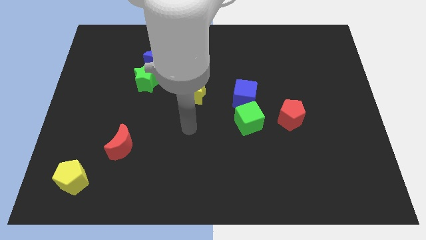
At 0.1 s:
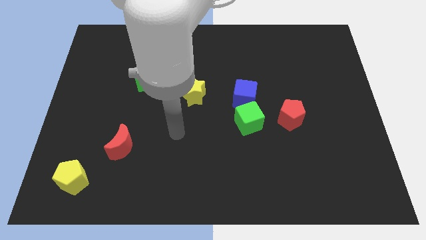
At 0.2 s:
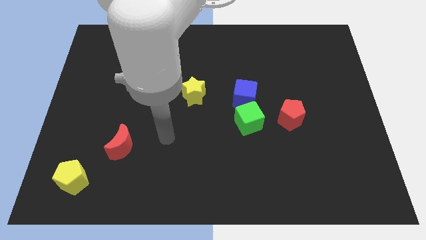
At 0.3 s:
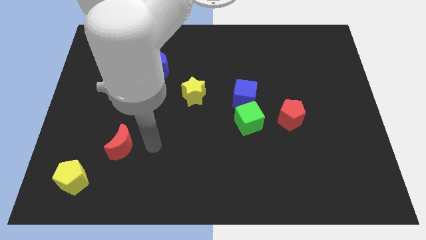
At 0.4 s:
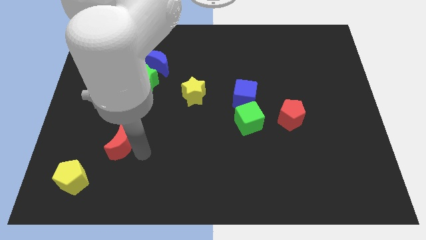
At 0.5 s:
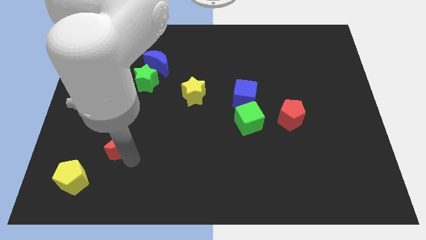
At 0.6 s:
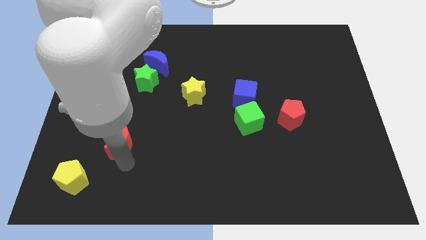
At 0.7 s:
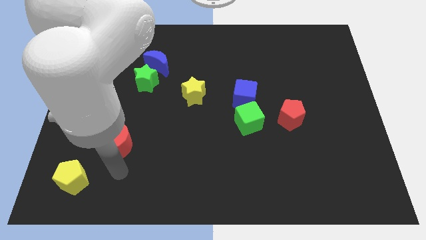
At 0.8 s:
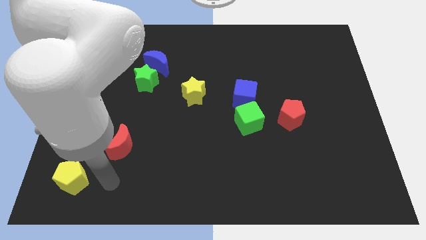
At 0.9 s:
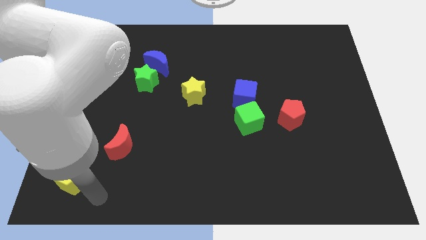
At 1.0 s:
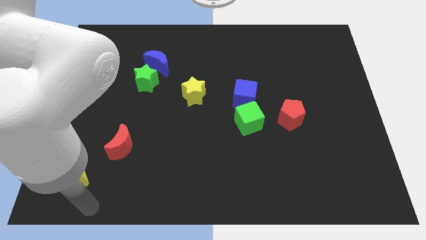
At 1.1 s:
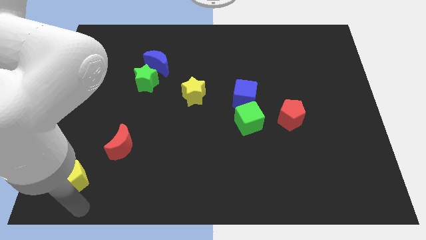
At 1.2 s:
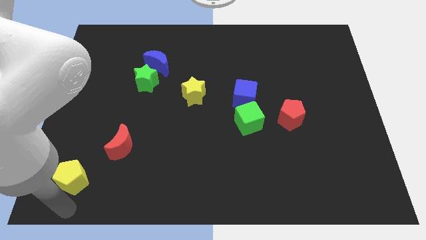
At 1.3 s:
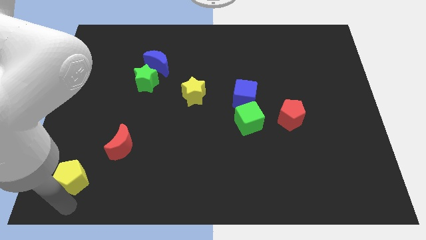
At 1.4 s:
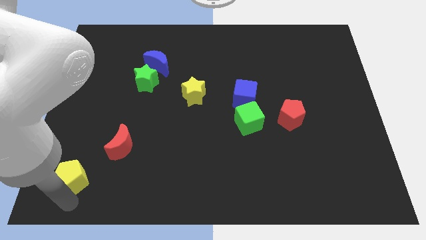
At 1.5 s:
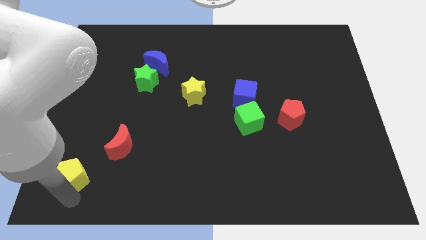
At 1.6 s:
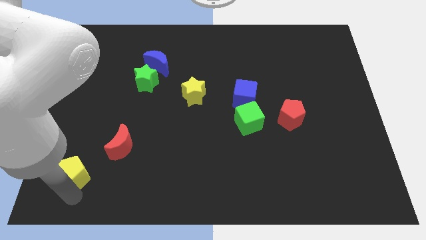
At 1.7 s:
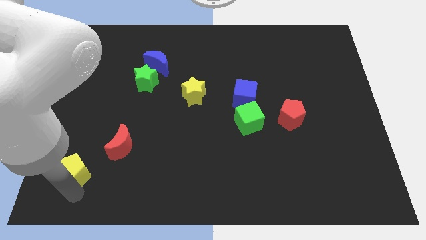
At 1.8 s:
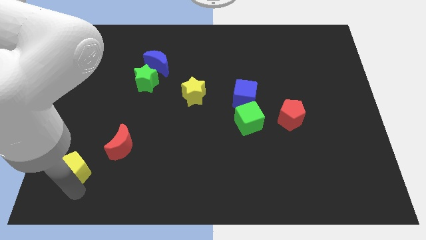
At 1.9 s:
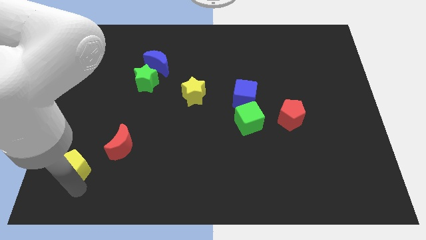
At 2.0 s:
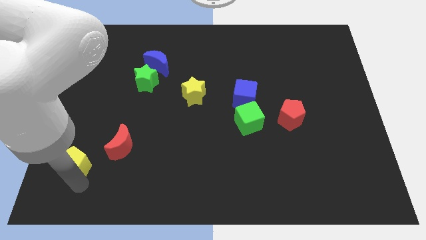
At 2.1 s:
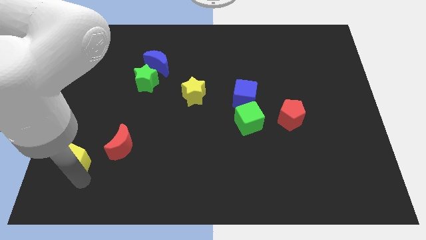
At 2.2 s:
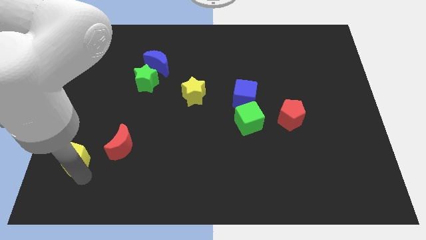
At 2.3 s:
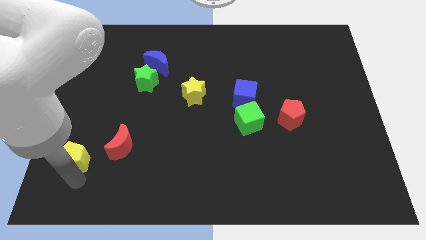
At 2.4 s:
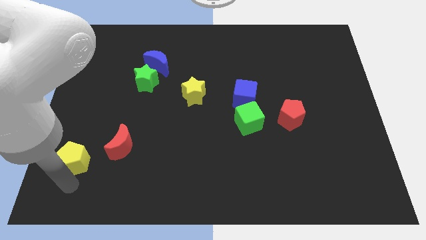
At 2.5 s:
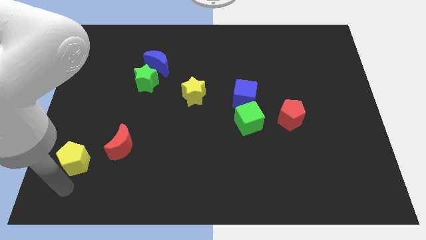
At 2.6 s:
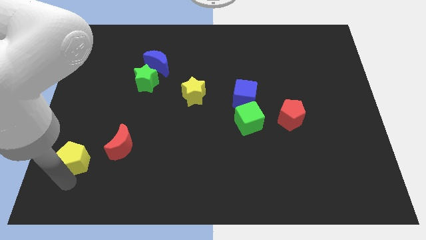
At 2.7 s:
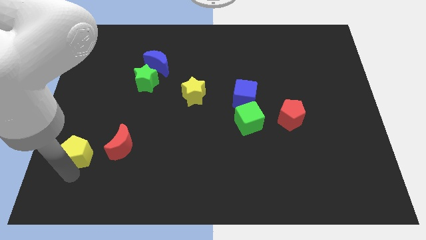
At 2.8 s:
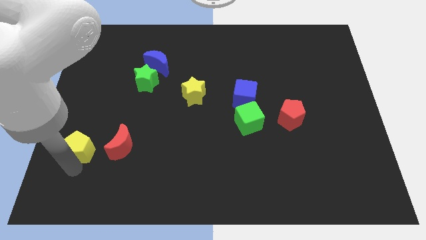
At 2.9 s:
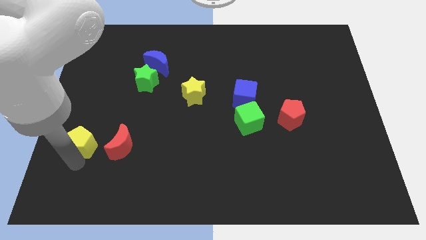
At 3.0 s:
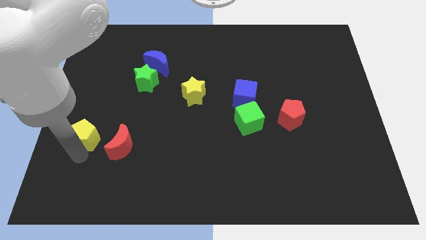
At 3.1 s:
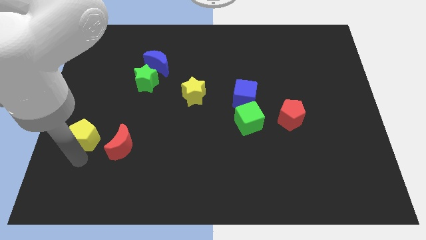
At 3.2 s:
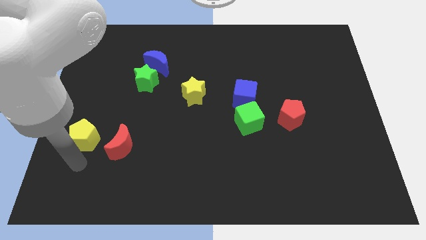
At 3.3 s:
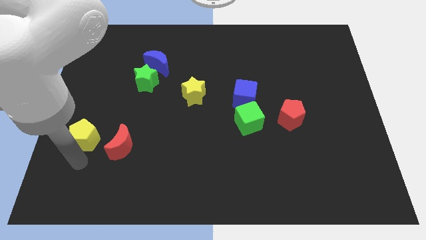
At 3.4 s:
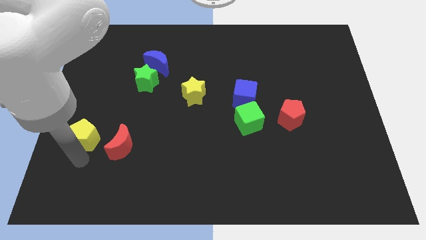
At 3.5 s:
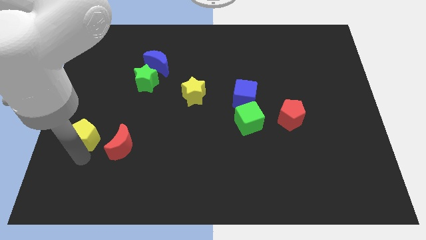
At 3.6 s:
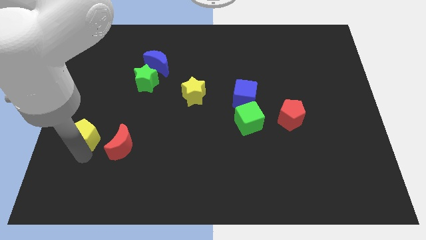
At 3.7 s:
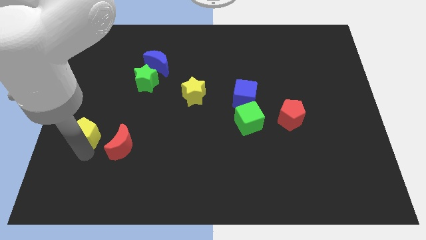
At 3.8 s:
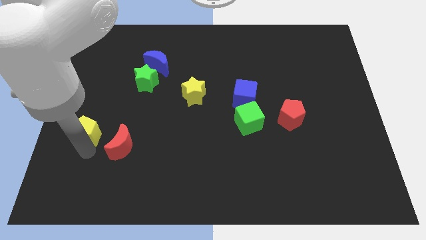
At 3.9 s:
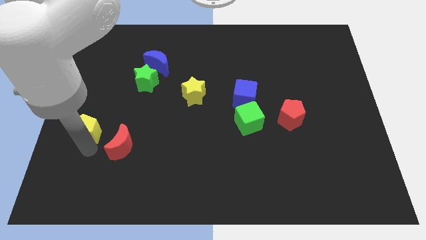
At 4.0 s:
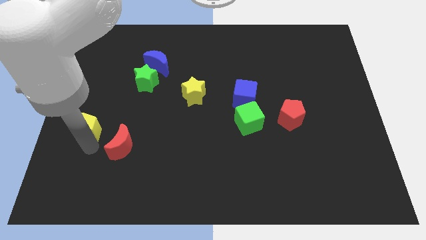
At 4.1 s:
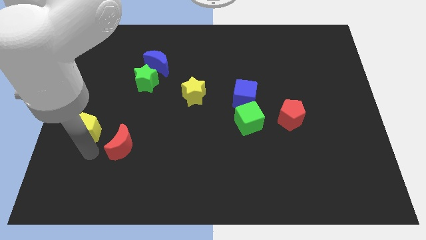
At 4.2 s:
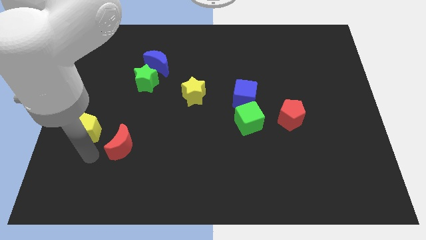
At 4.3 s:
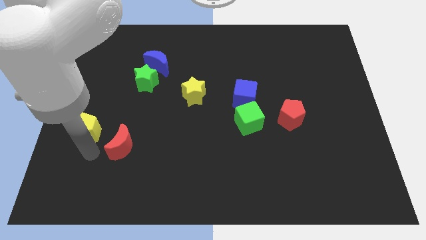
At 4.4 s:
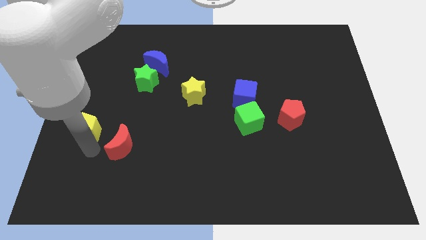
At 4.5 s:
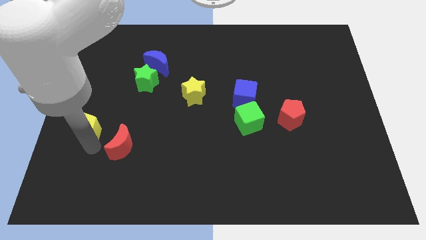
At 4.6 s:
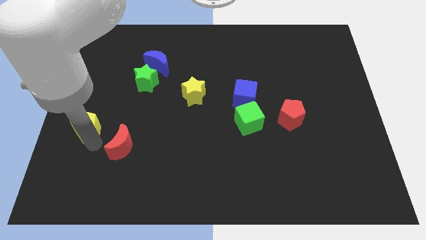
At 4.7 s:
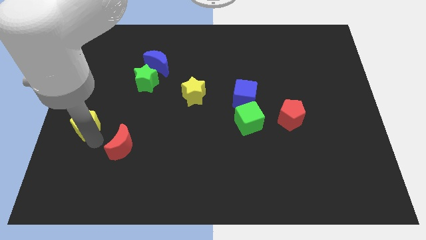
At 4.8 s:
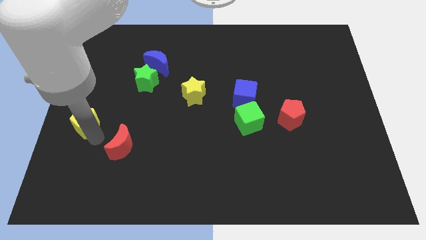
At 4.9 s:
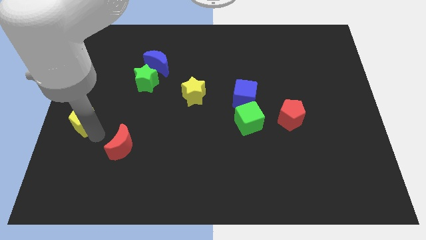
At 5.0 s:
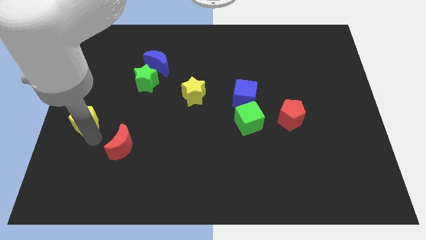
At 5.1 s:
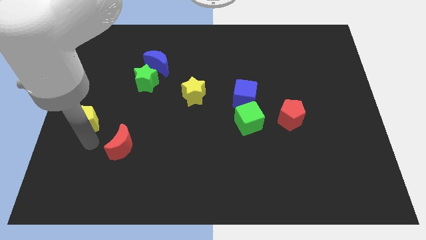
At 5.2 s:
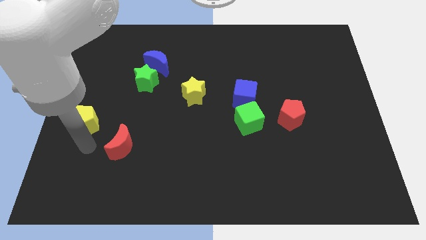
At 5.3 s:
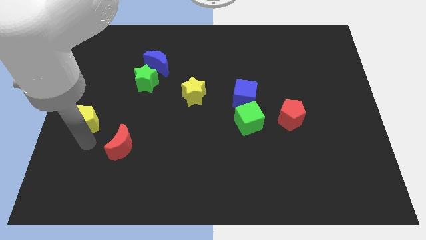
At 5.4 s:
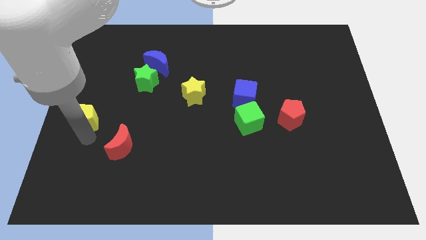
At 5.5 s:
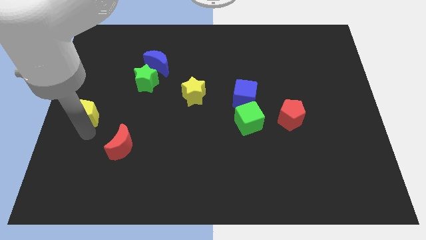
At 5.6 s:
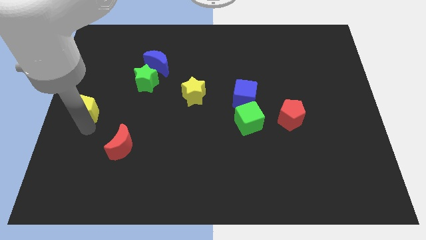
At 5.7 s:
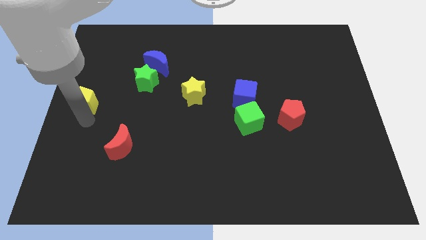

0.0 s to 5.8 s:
slide the yellow pentagon up

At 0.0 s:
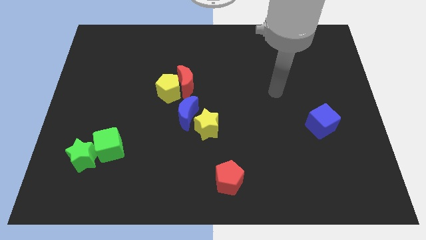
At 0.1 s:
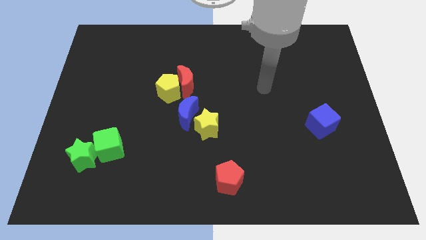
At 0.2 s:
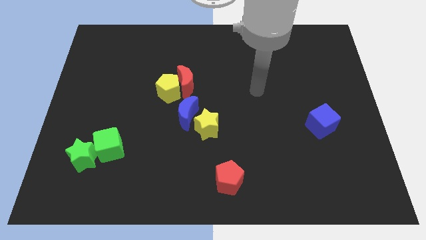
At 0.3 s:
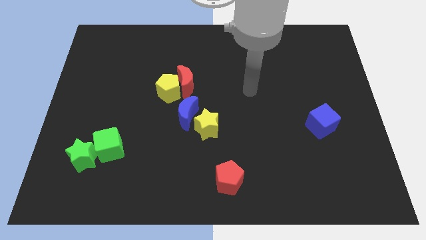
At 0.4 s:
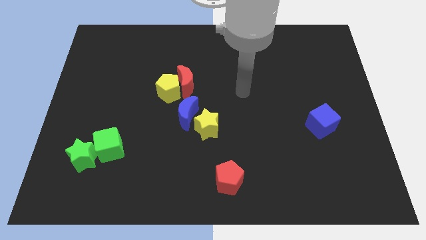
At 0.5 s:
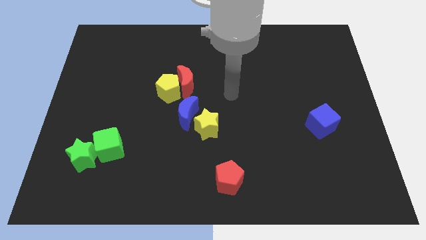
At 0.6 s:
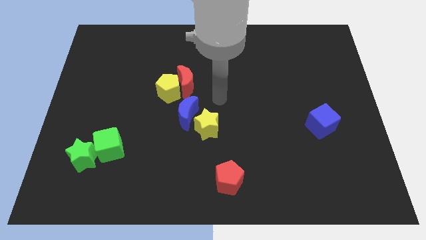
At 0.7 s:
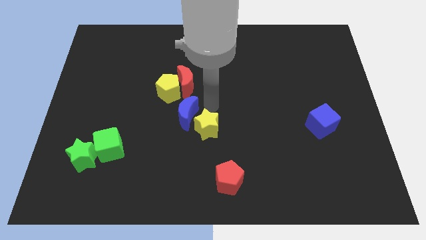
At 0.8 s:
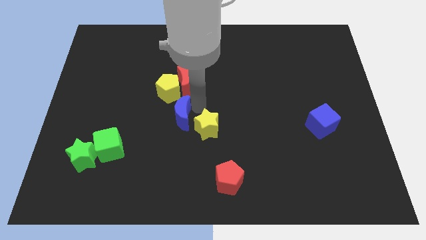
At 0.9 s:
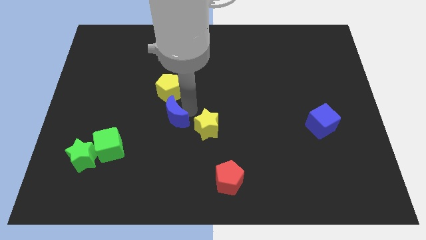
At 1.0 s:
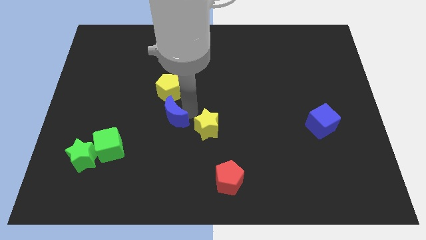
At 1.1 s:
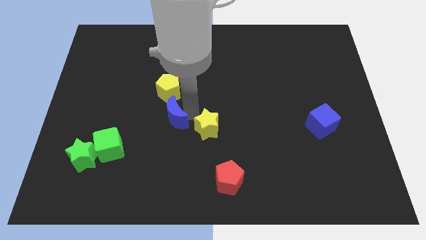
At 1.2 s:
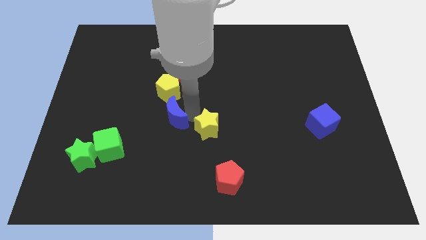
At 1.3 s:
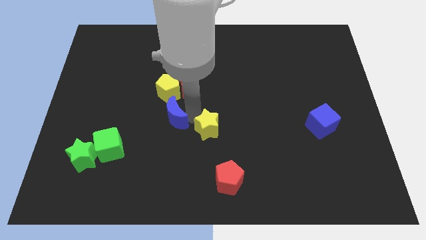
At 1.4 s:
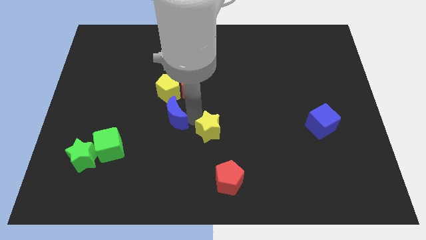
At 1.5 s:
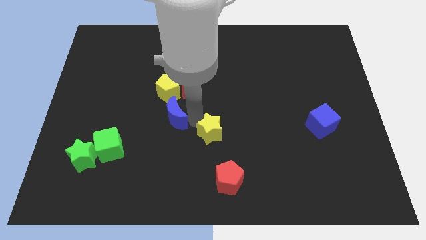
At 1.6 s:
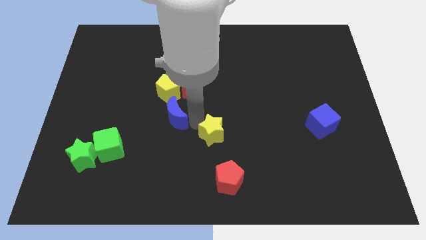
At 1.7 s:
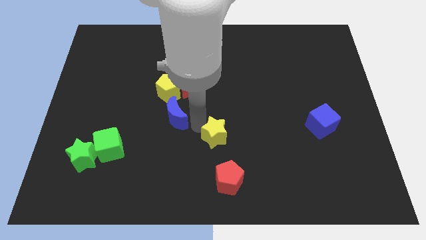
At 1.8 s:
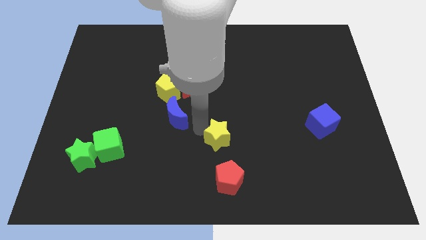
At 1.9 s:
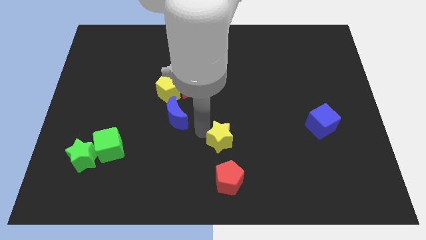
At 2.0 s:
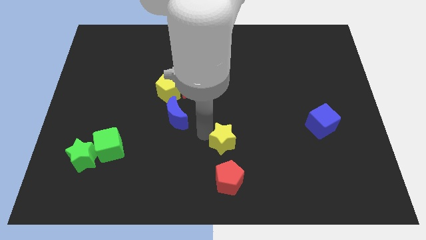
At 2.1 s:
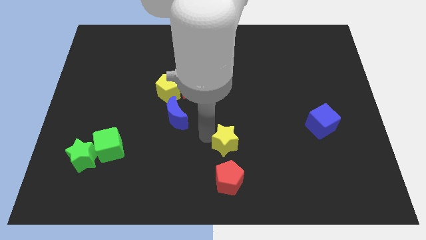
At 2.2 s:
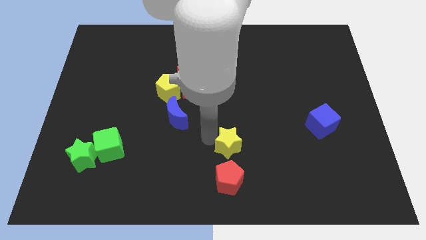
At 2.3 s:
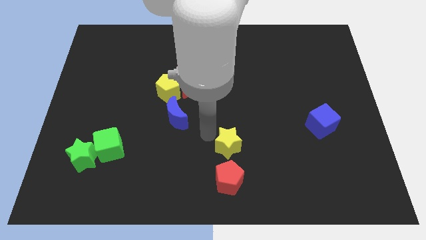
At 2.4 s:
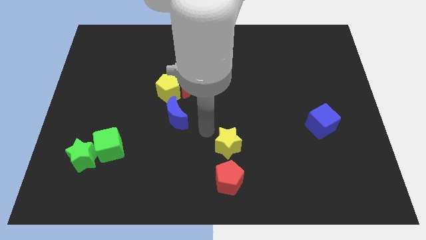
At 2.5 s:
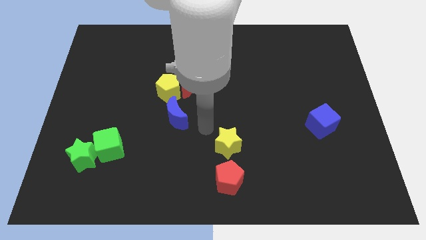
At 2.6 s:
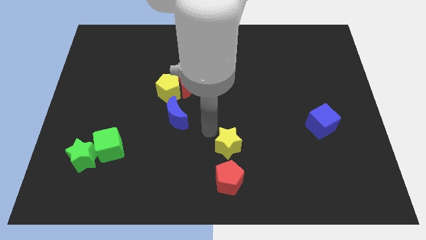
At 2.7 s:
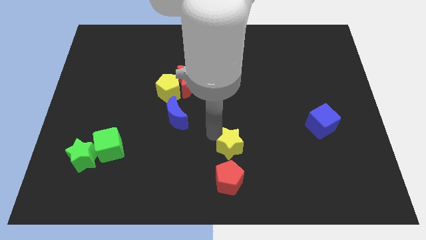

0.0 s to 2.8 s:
move the yellow star a bit downwards and to the right
